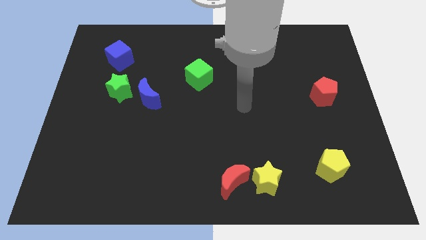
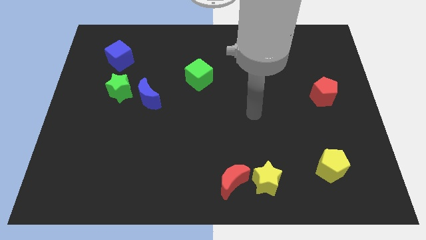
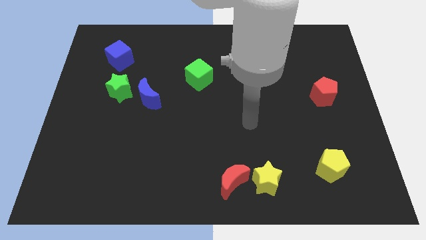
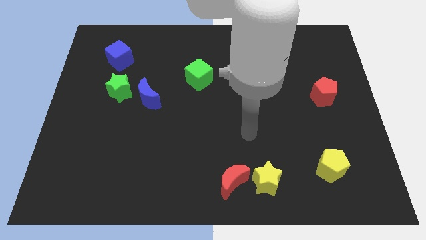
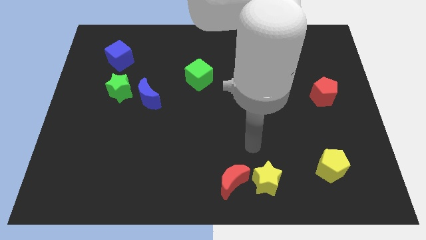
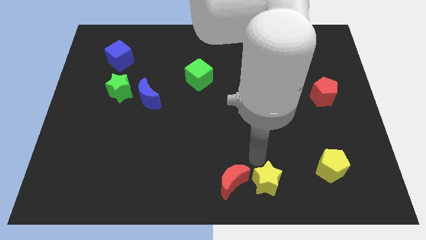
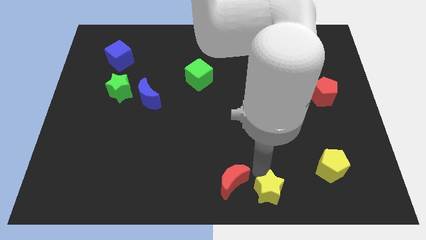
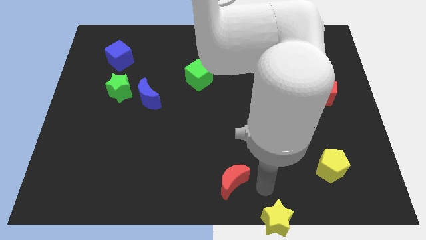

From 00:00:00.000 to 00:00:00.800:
separate the red moon from the yellow star

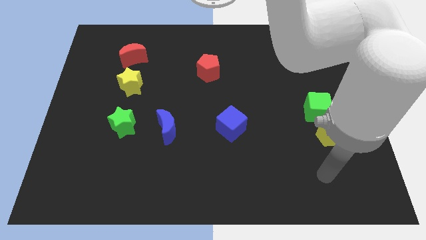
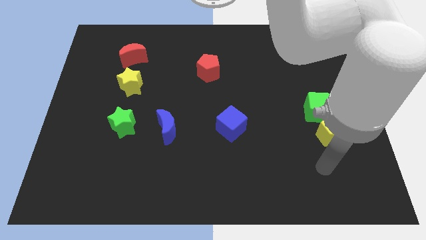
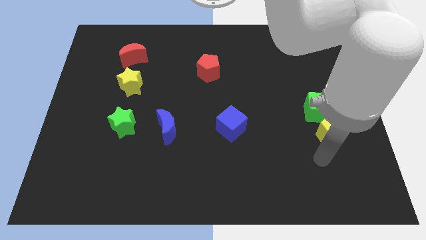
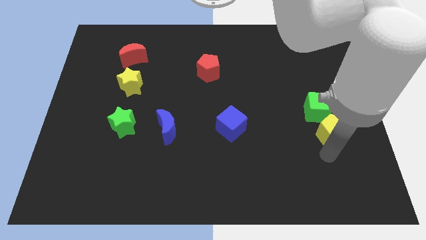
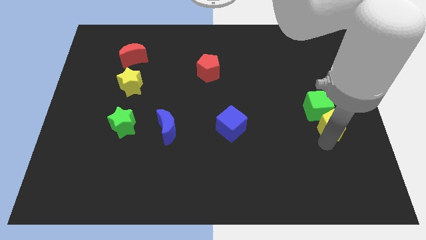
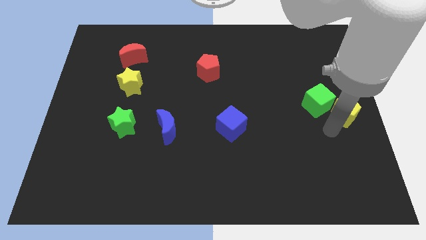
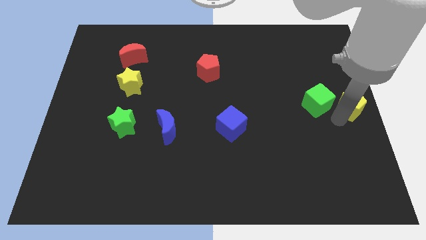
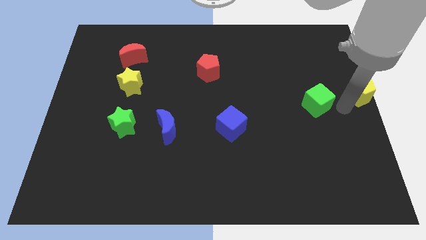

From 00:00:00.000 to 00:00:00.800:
pull the green cube apart from the yellow pentagon

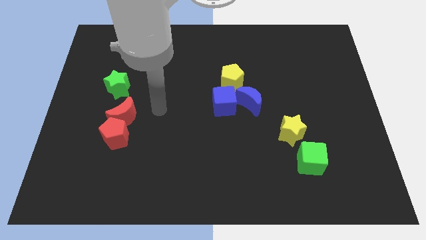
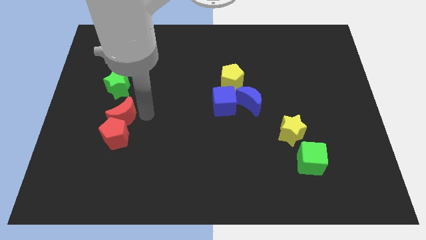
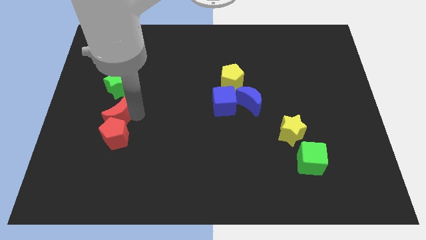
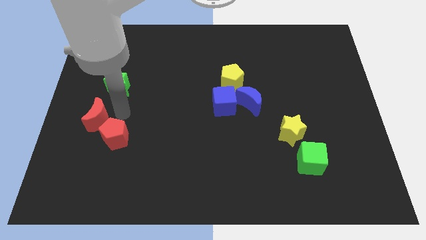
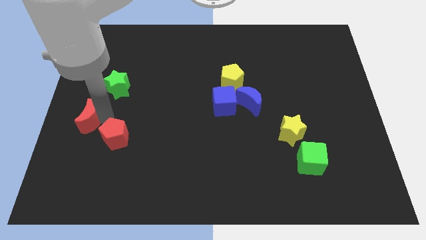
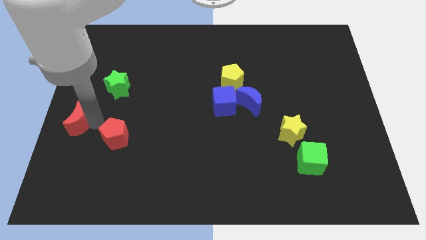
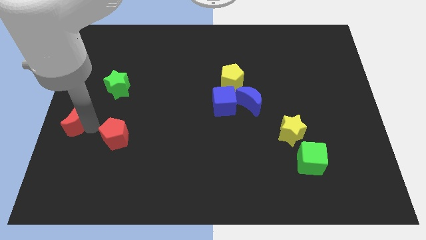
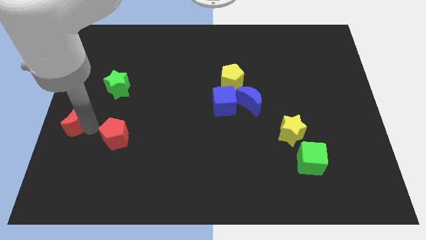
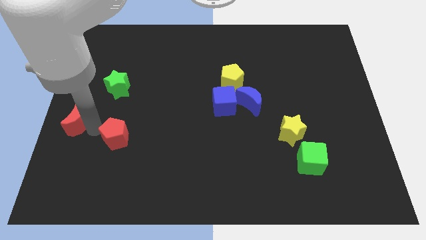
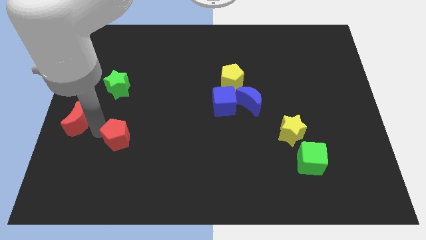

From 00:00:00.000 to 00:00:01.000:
pull the red pentagon apart from the red moon

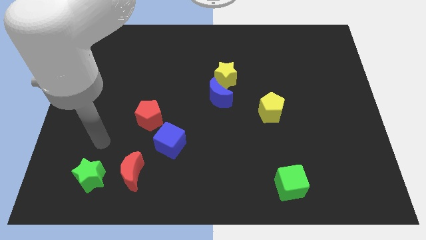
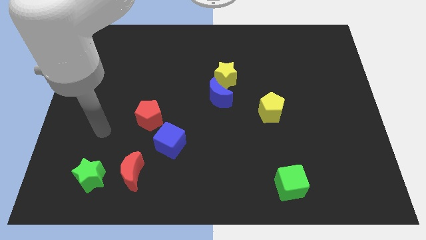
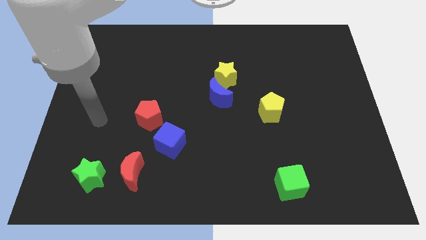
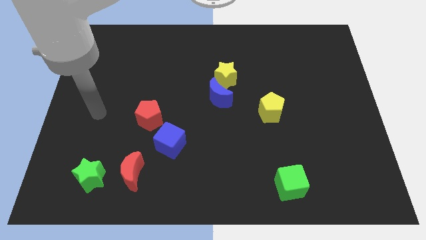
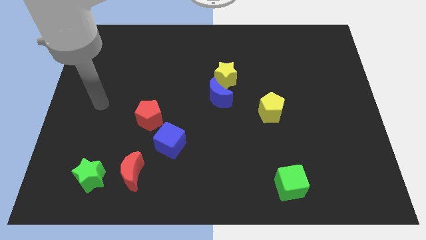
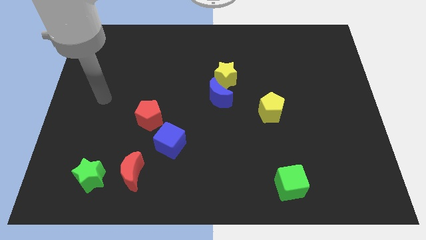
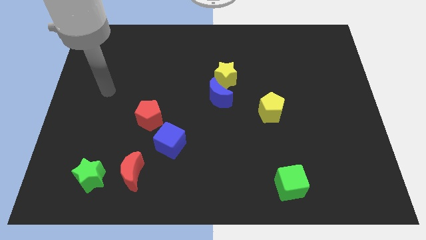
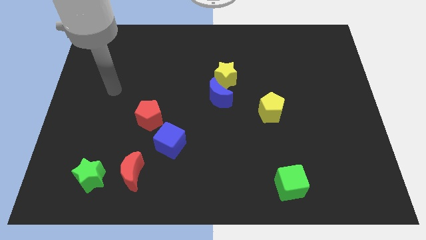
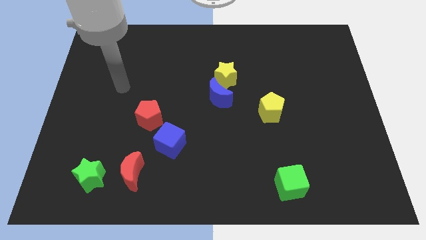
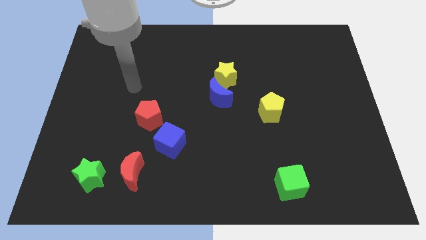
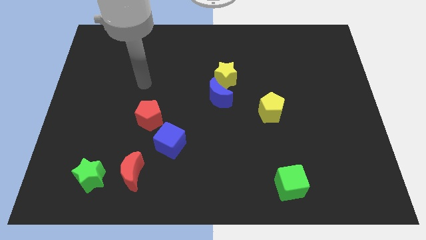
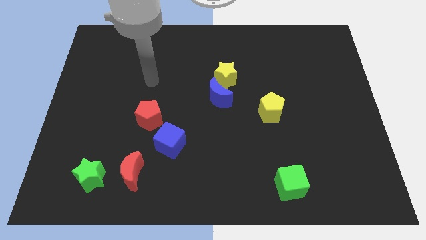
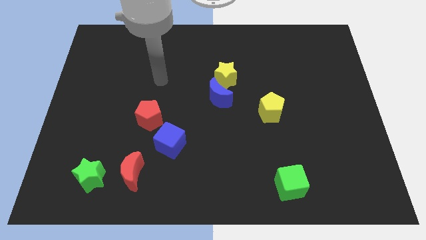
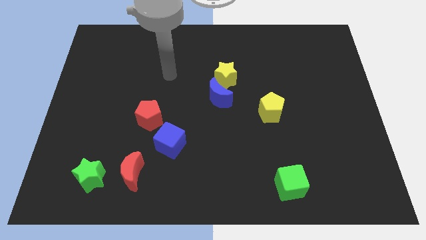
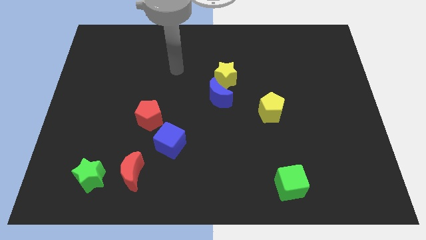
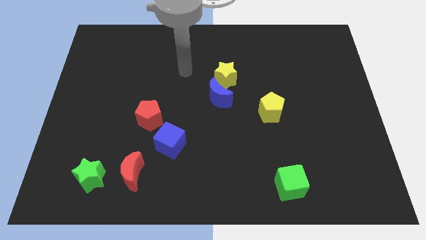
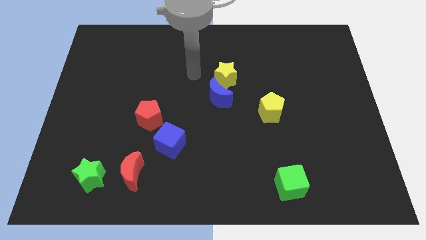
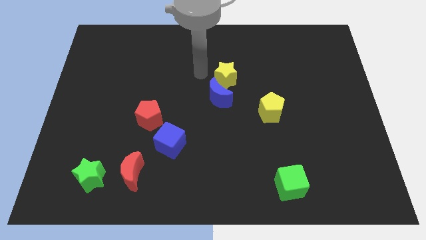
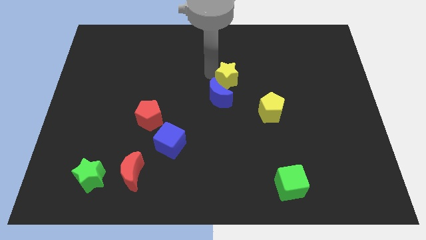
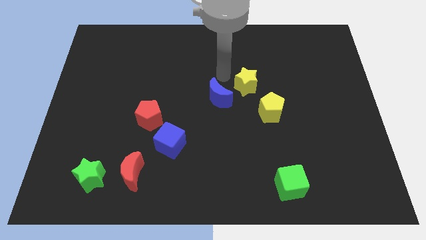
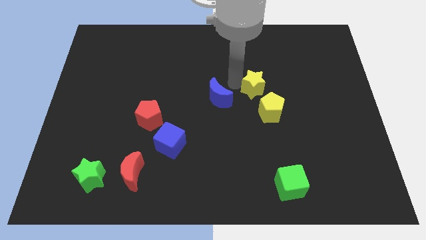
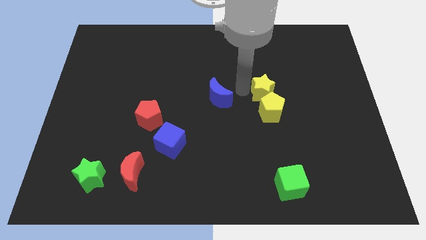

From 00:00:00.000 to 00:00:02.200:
pull the blue moon apart from the yellow star

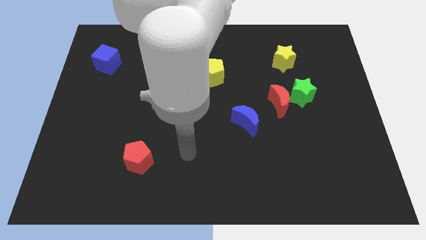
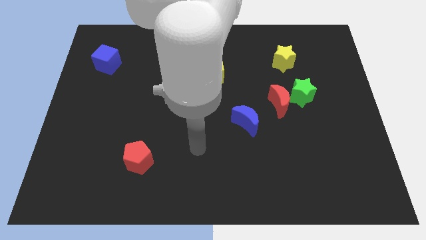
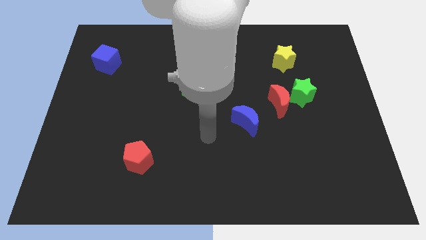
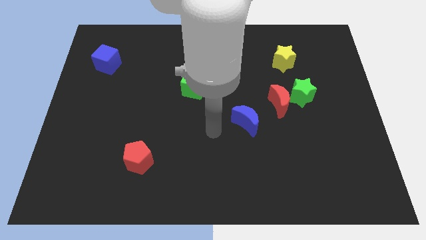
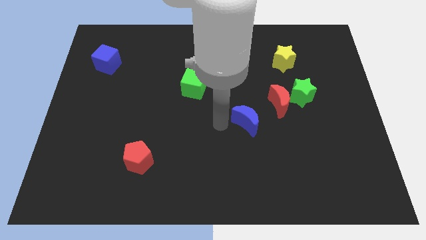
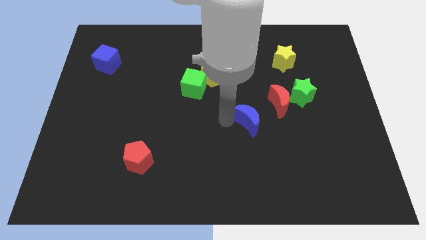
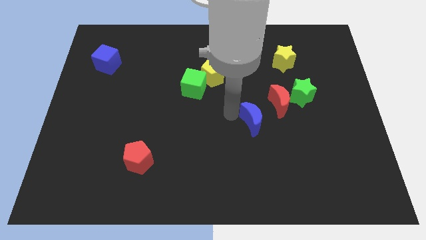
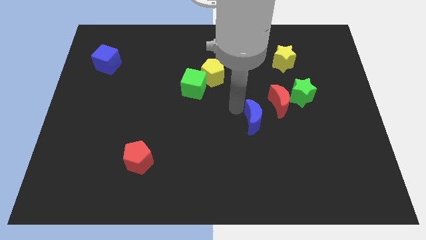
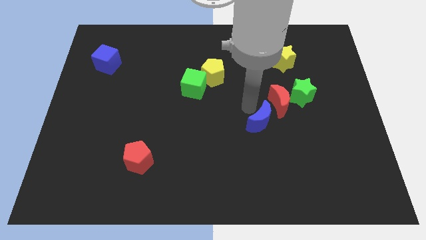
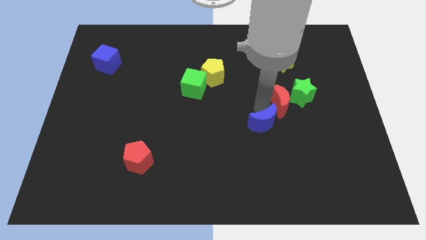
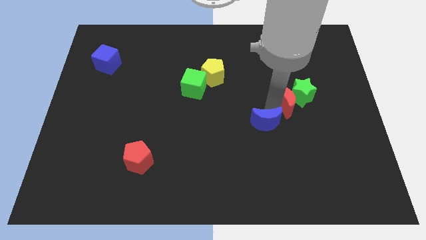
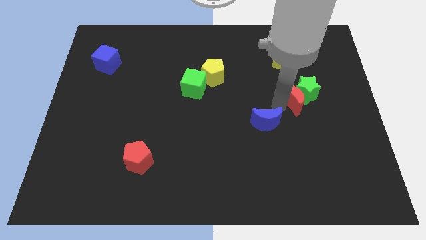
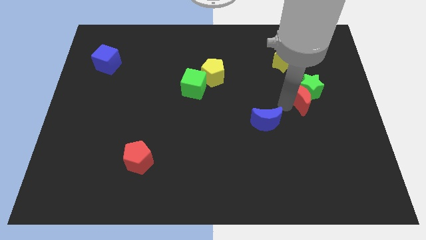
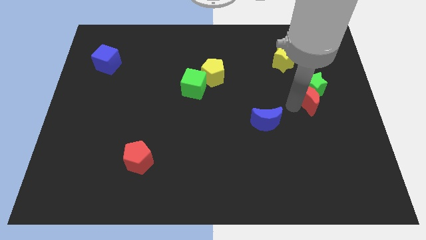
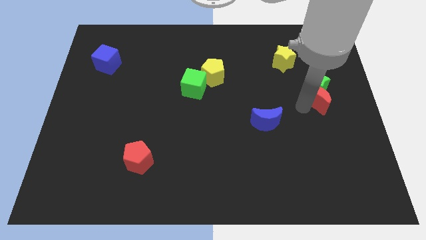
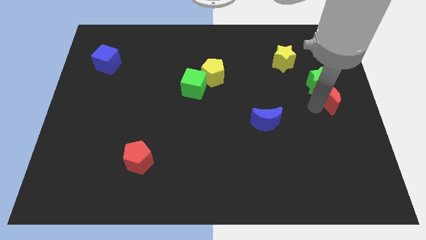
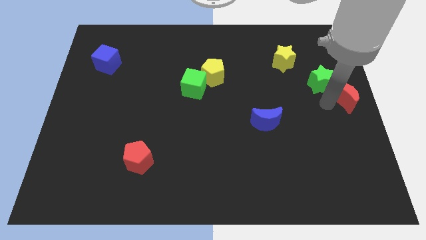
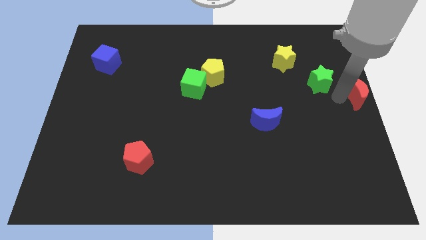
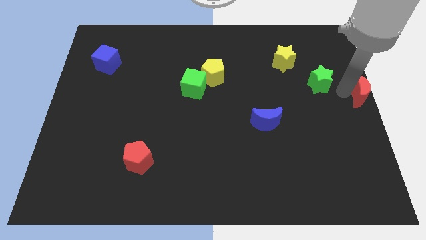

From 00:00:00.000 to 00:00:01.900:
move the green star away from the red moon

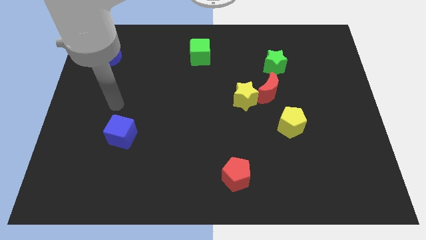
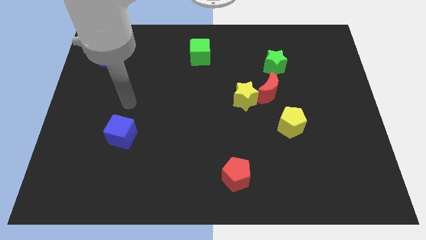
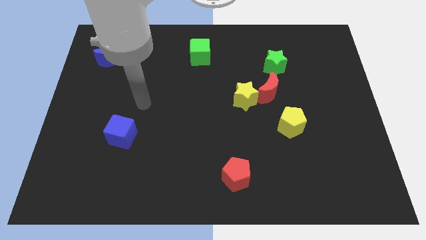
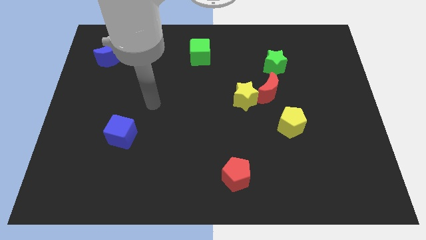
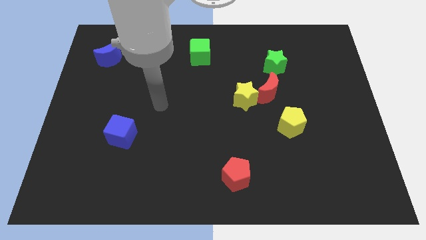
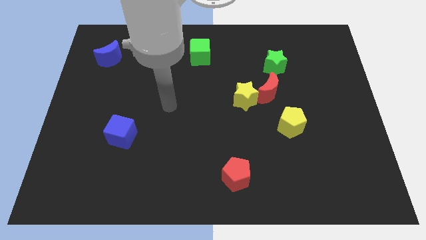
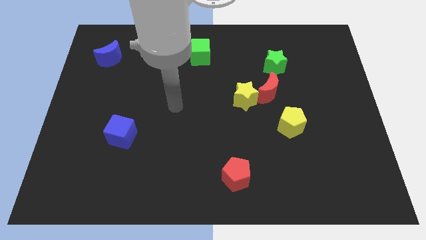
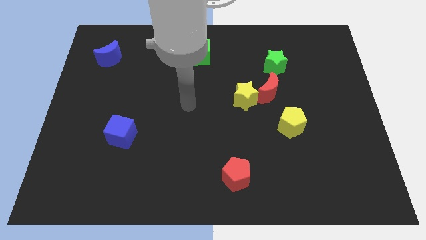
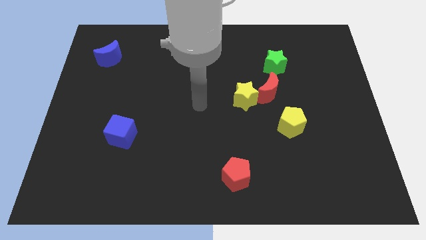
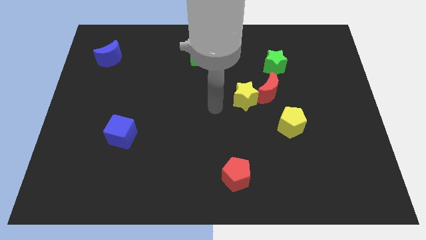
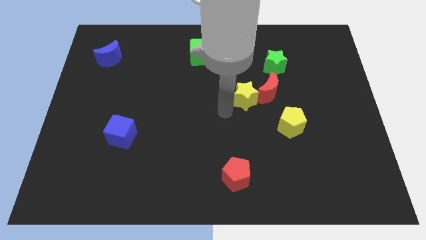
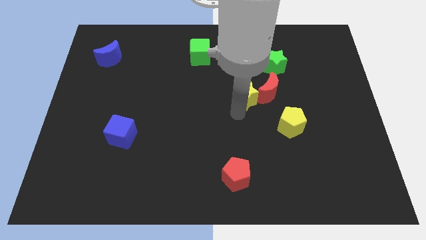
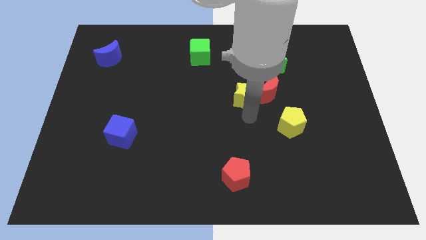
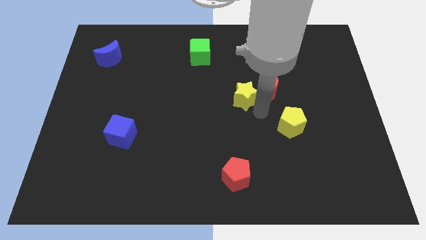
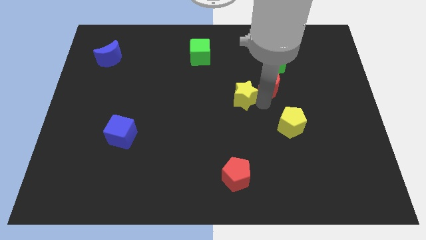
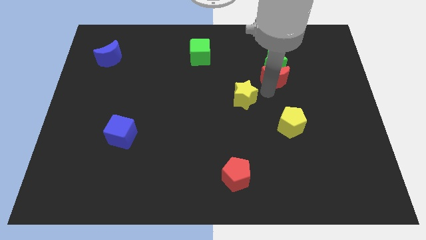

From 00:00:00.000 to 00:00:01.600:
separate the yellow star from the red moon

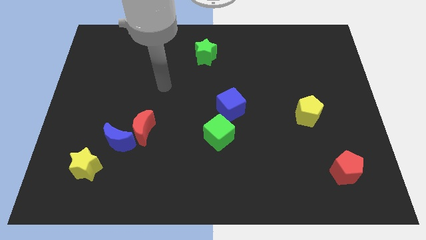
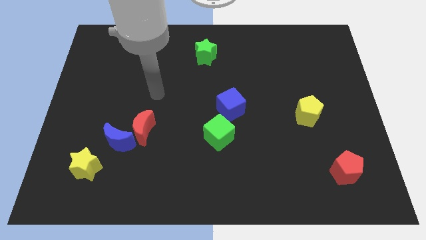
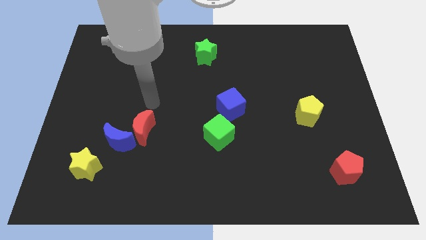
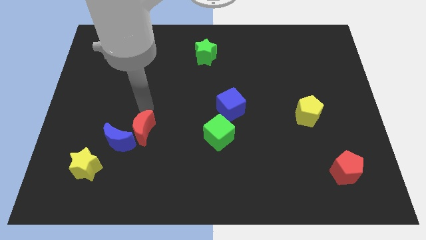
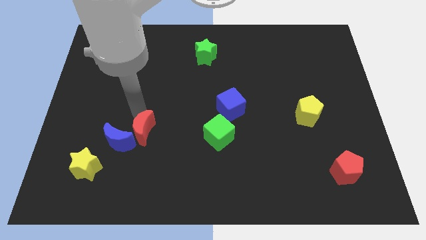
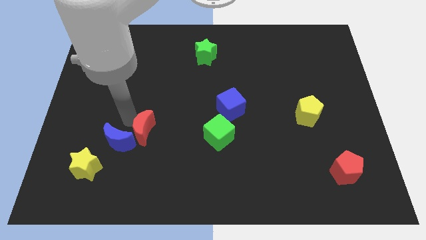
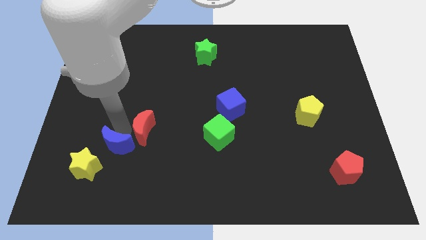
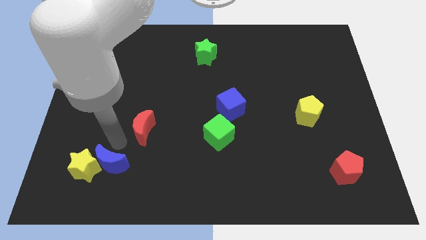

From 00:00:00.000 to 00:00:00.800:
separate the red moon from the blue moon

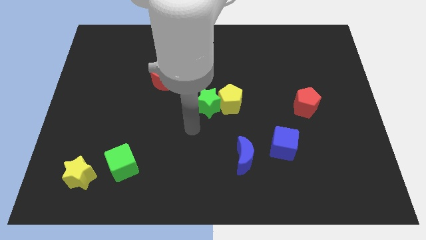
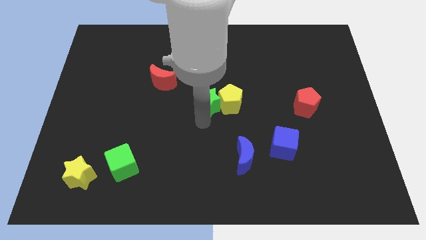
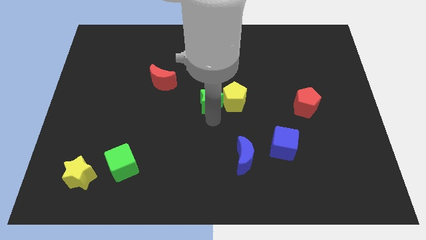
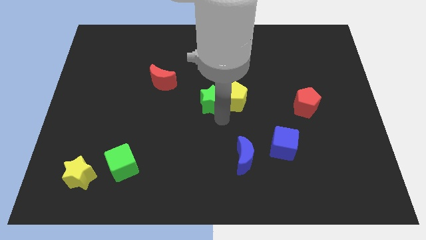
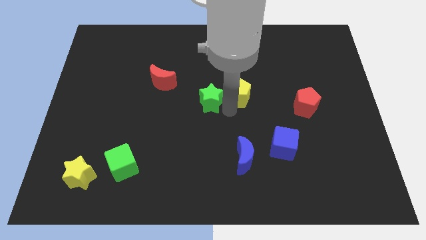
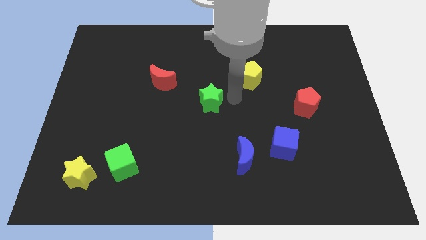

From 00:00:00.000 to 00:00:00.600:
move the green star away from the yellow pentagon
